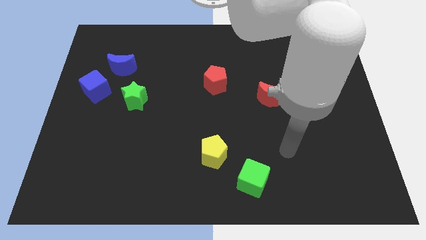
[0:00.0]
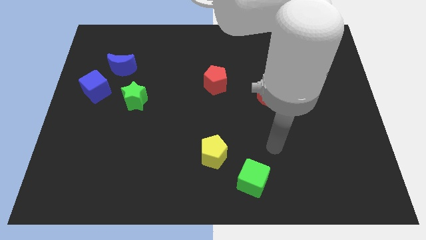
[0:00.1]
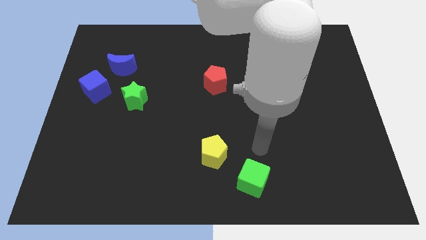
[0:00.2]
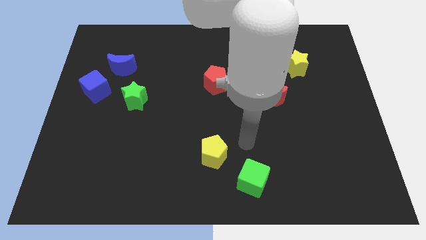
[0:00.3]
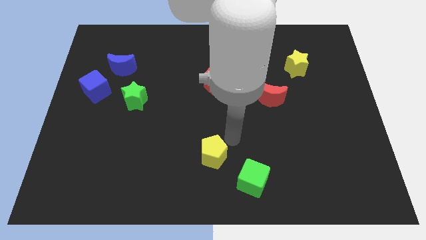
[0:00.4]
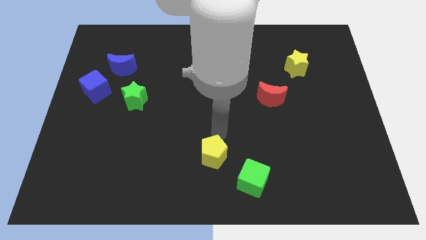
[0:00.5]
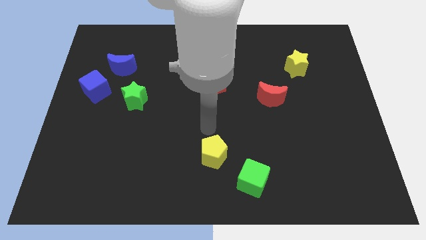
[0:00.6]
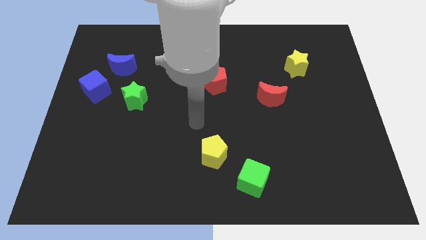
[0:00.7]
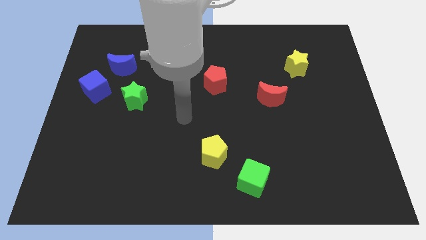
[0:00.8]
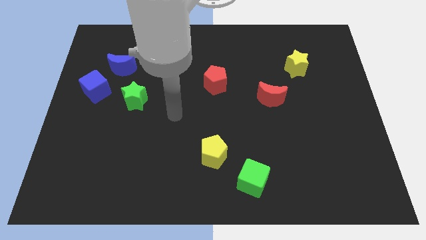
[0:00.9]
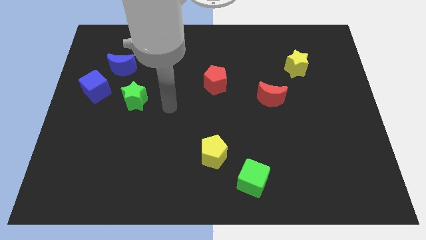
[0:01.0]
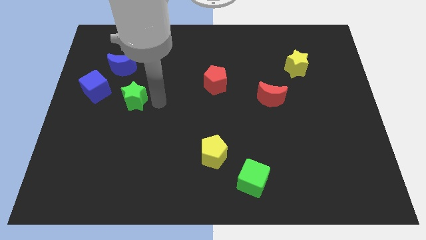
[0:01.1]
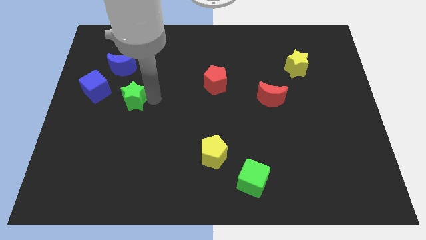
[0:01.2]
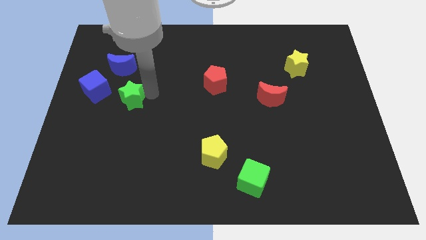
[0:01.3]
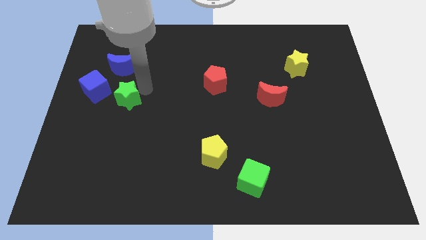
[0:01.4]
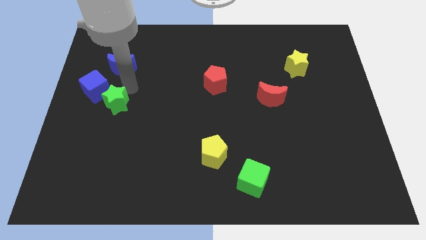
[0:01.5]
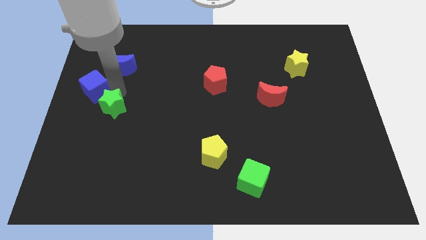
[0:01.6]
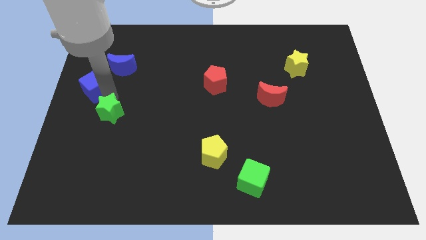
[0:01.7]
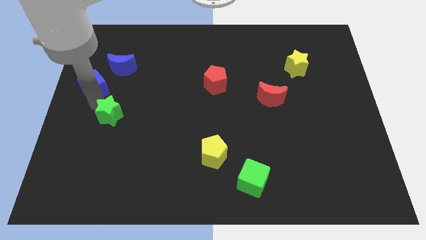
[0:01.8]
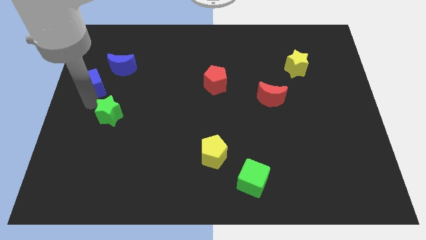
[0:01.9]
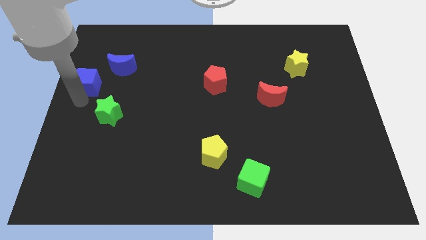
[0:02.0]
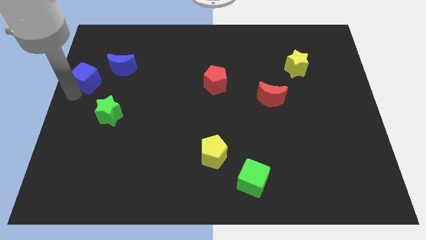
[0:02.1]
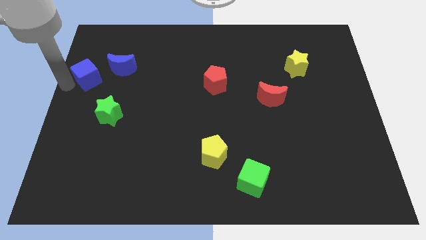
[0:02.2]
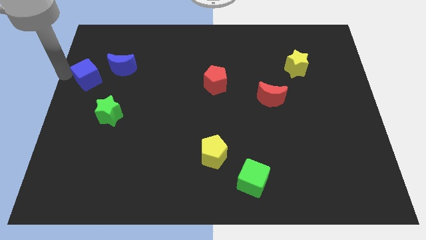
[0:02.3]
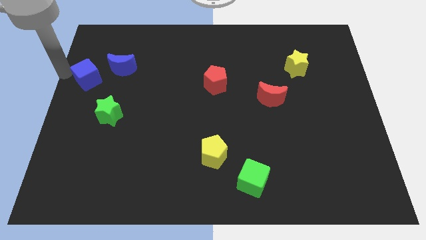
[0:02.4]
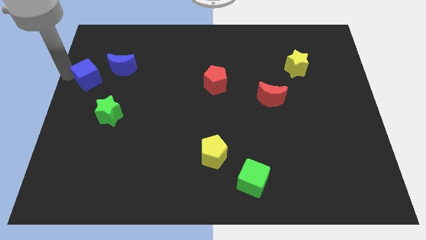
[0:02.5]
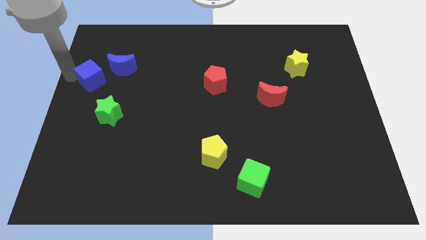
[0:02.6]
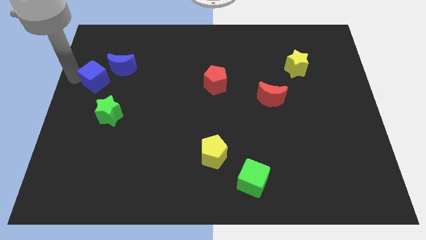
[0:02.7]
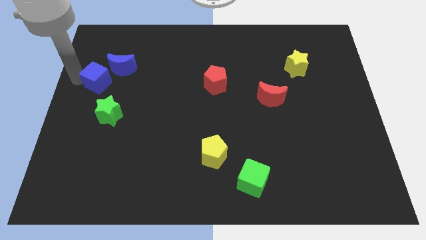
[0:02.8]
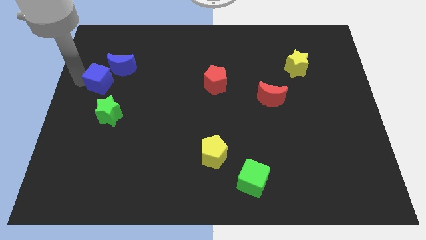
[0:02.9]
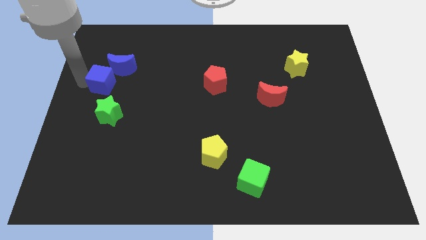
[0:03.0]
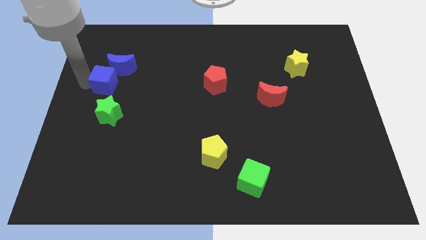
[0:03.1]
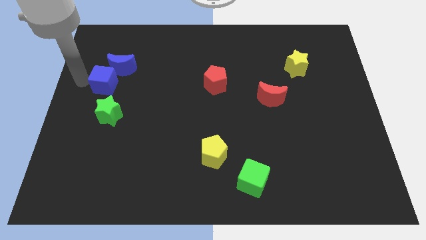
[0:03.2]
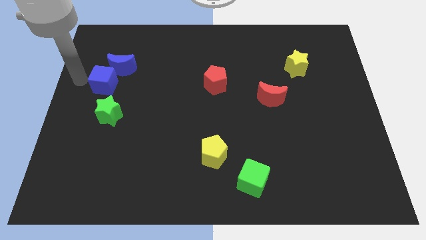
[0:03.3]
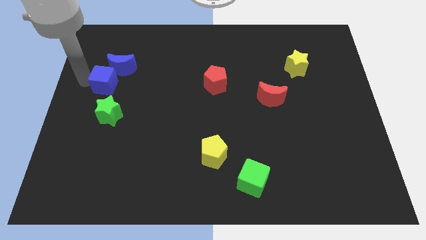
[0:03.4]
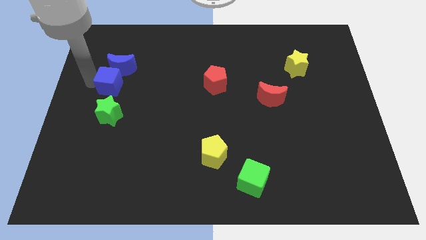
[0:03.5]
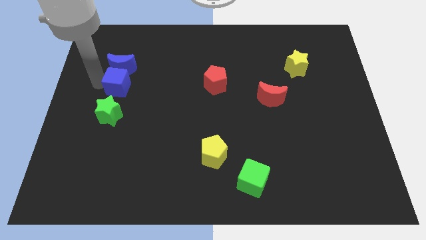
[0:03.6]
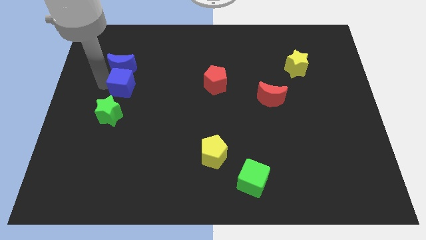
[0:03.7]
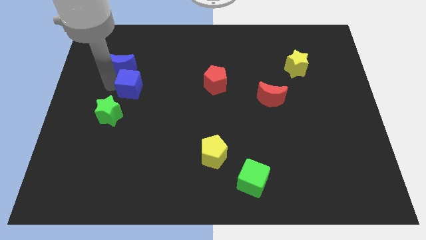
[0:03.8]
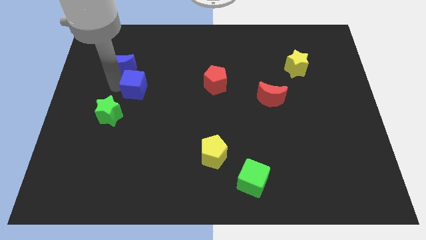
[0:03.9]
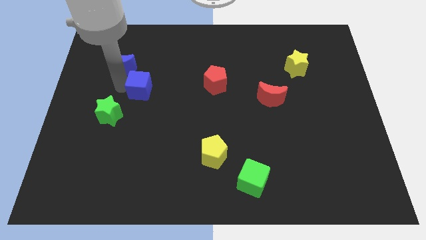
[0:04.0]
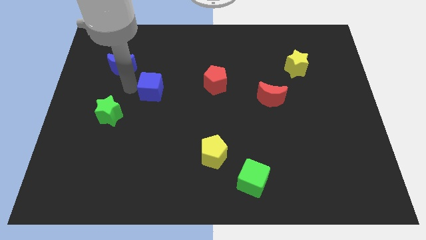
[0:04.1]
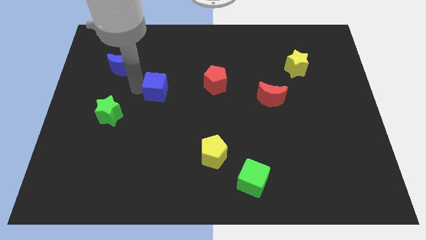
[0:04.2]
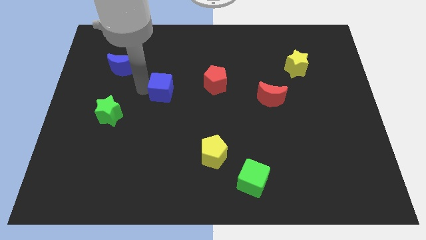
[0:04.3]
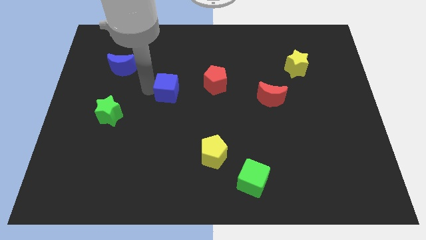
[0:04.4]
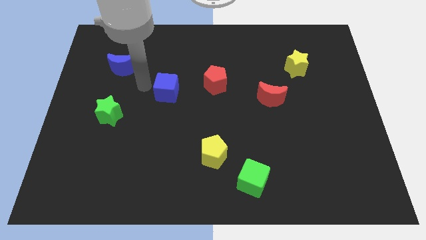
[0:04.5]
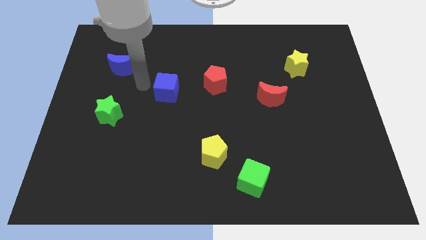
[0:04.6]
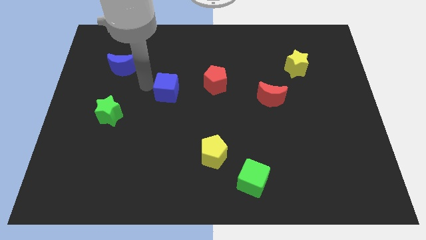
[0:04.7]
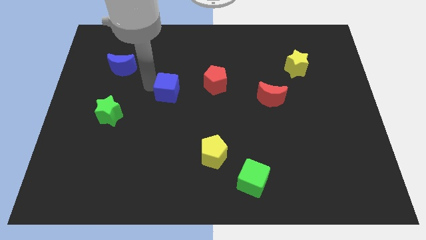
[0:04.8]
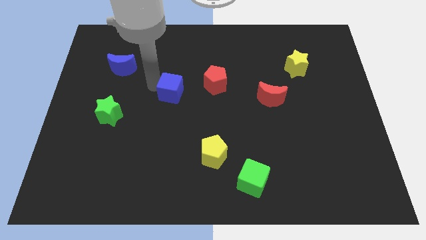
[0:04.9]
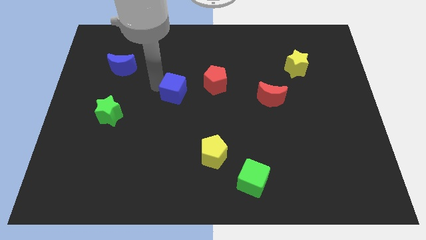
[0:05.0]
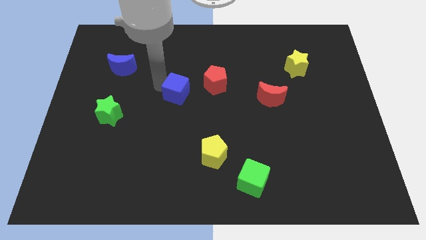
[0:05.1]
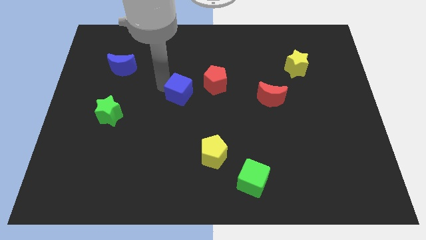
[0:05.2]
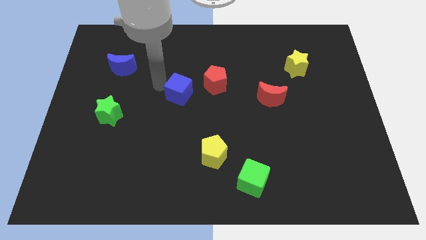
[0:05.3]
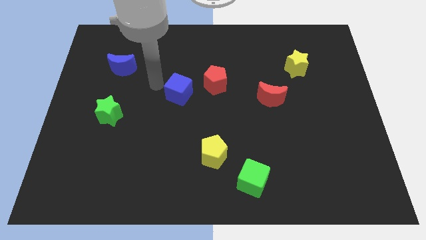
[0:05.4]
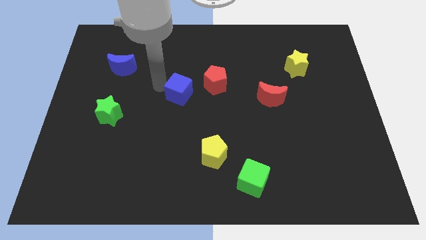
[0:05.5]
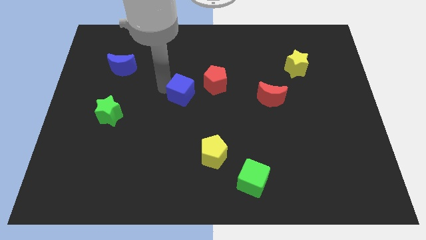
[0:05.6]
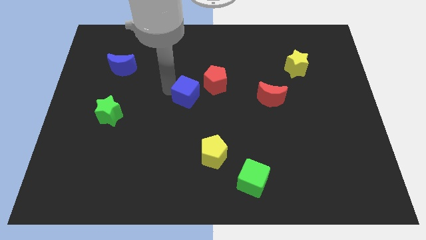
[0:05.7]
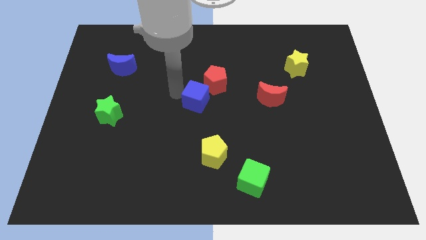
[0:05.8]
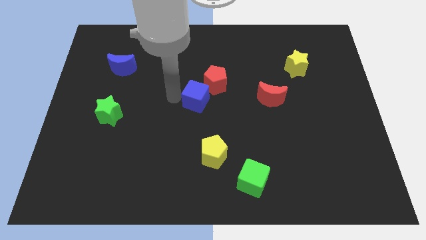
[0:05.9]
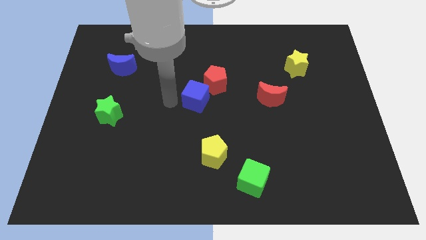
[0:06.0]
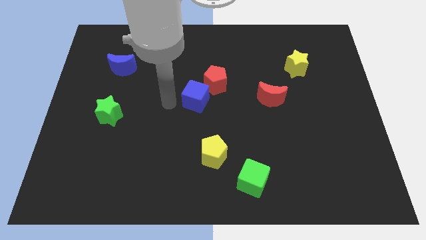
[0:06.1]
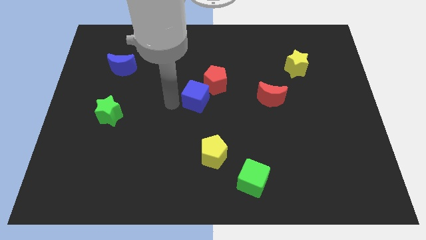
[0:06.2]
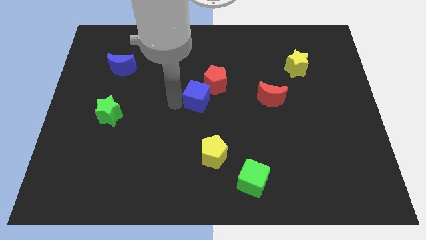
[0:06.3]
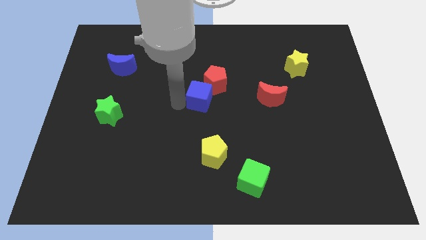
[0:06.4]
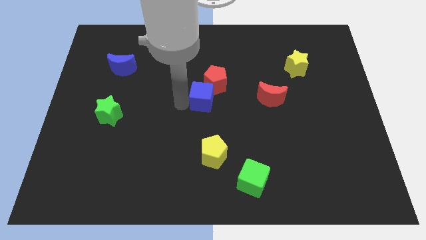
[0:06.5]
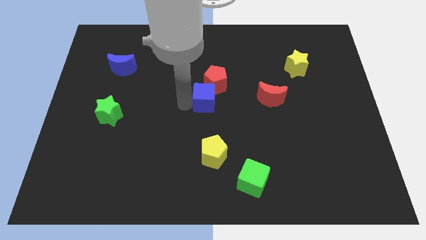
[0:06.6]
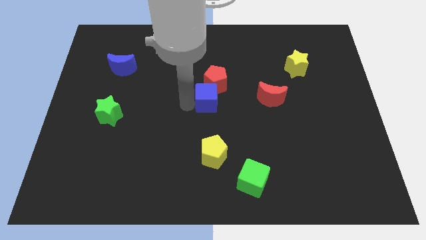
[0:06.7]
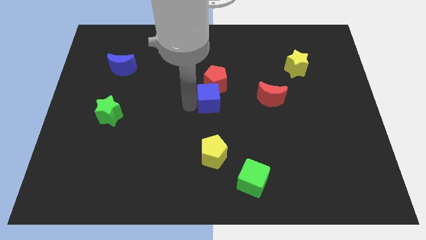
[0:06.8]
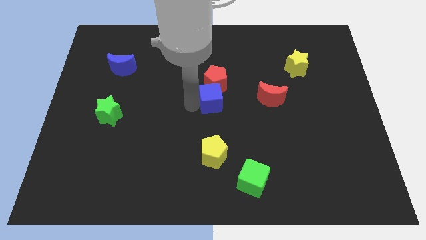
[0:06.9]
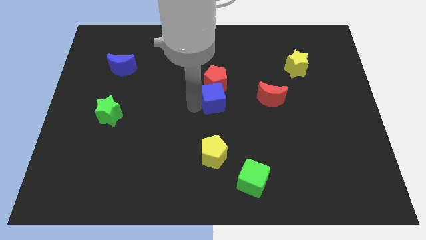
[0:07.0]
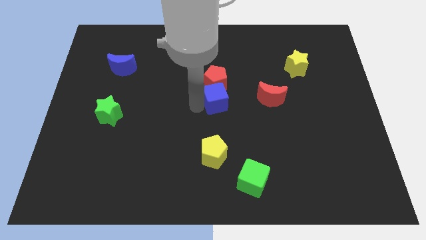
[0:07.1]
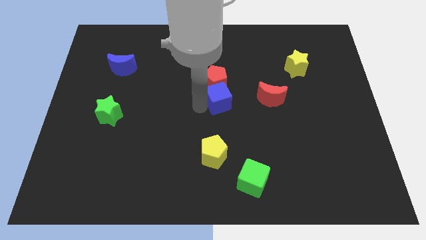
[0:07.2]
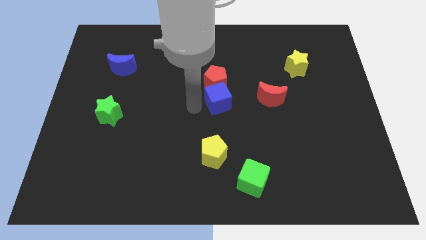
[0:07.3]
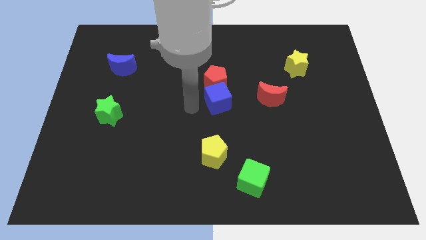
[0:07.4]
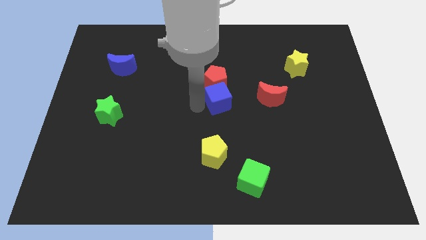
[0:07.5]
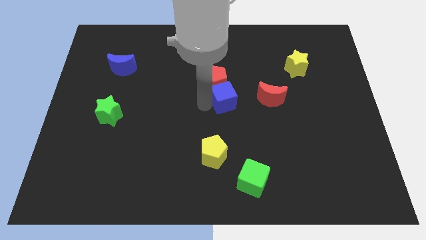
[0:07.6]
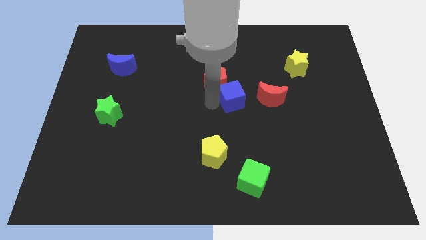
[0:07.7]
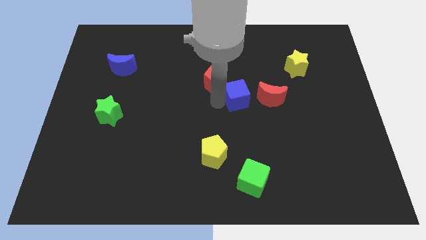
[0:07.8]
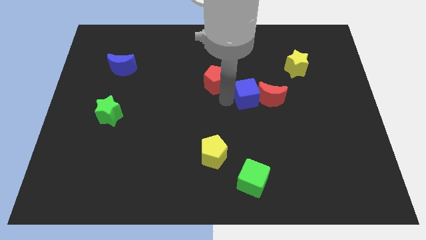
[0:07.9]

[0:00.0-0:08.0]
slide the blue cube next to the red moon
